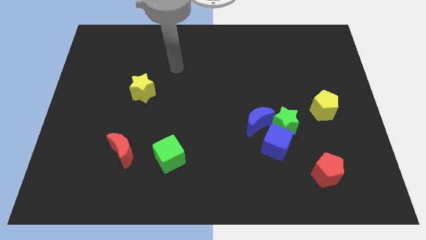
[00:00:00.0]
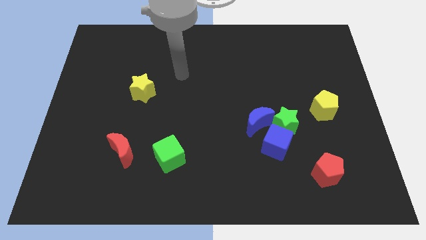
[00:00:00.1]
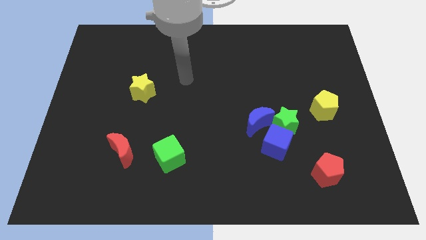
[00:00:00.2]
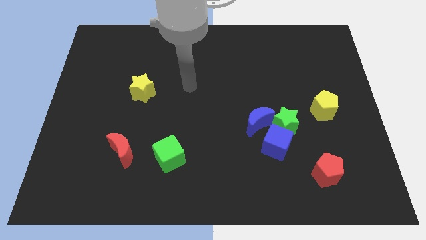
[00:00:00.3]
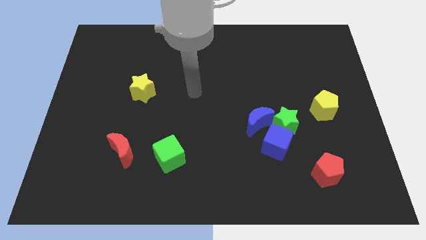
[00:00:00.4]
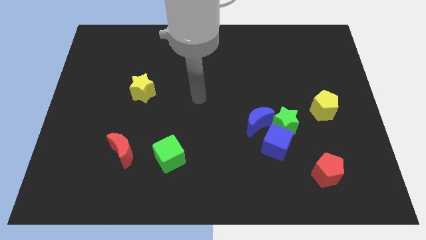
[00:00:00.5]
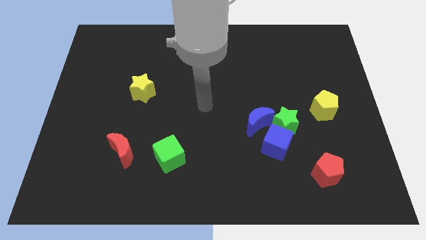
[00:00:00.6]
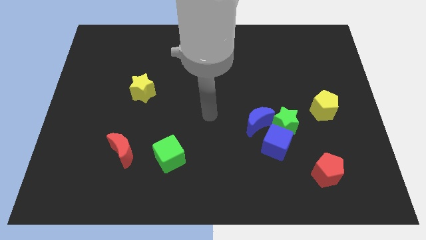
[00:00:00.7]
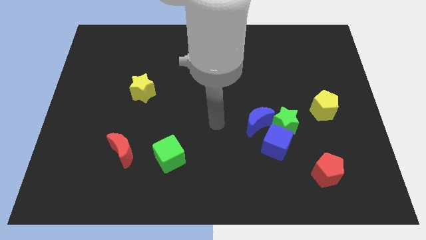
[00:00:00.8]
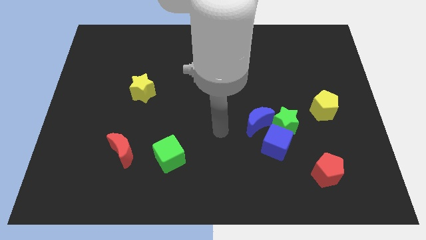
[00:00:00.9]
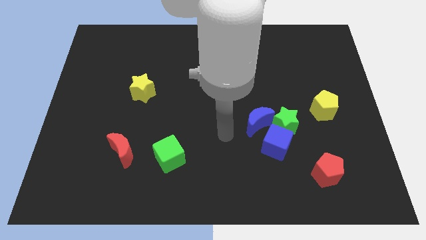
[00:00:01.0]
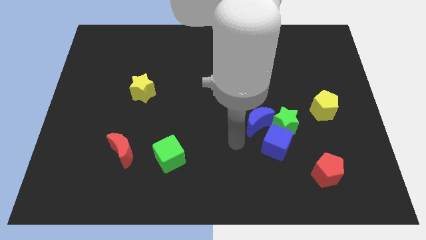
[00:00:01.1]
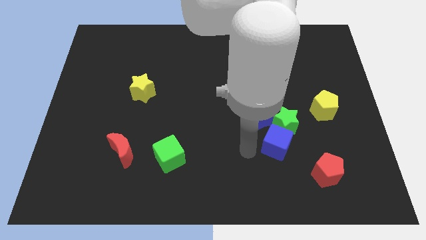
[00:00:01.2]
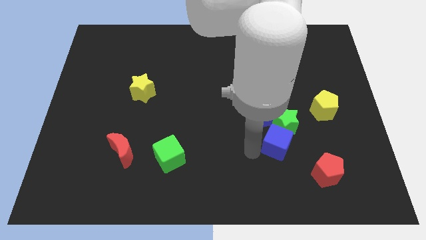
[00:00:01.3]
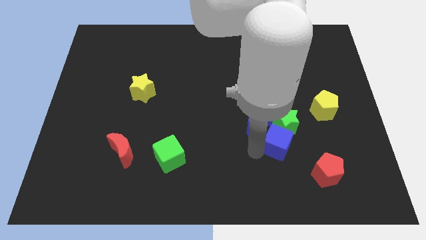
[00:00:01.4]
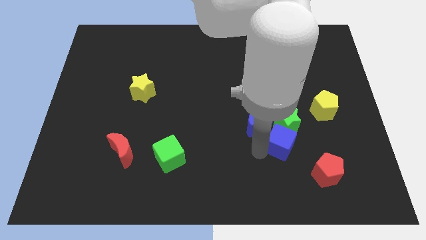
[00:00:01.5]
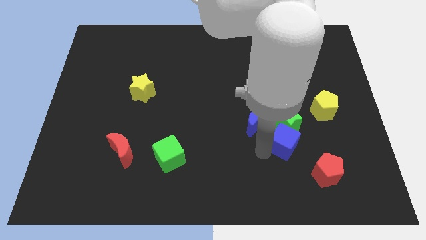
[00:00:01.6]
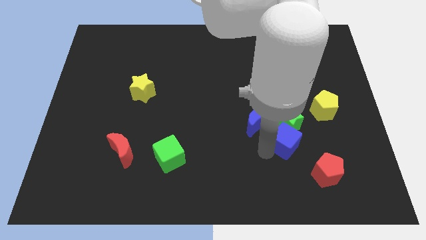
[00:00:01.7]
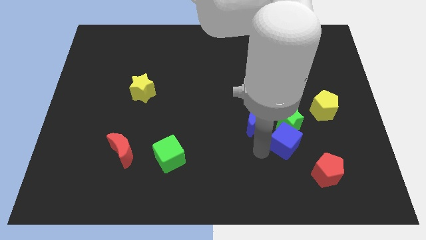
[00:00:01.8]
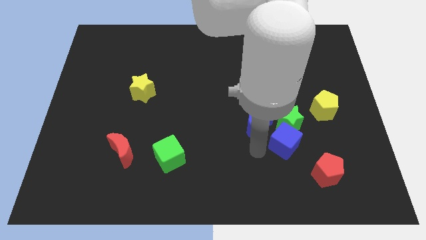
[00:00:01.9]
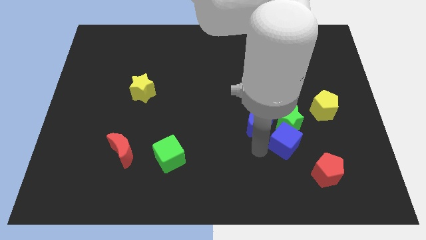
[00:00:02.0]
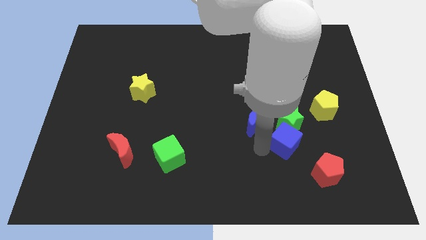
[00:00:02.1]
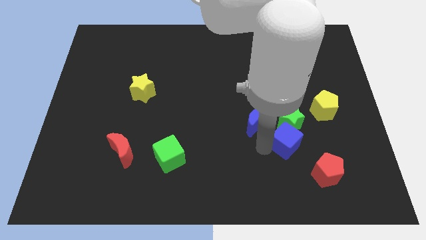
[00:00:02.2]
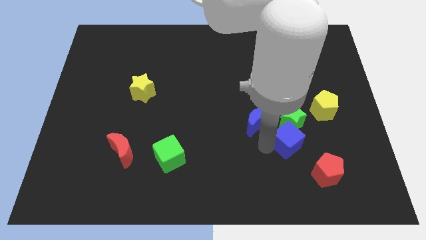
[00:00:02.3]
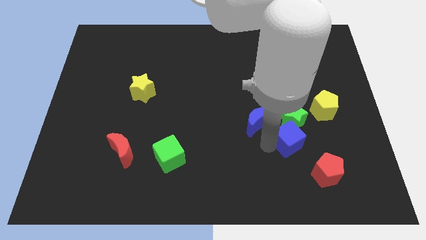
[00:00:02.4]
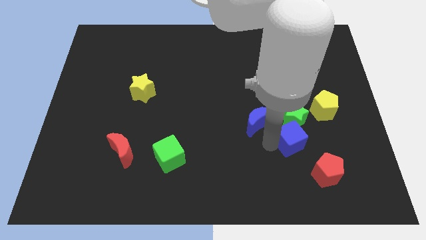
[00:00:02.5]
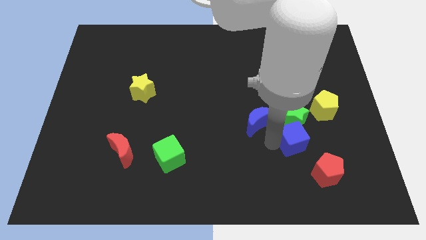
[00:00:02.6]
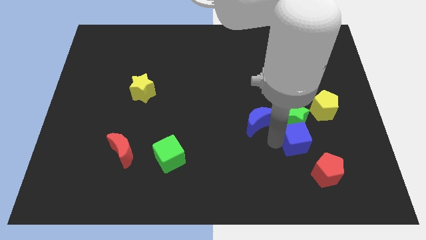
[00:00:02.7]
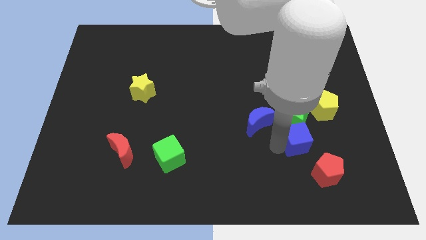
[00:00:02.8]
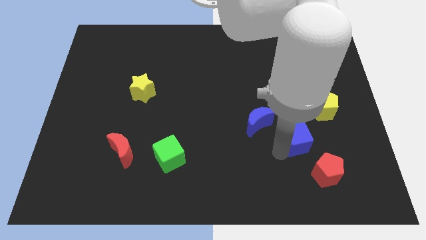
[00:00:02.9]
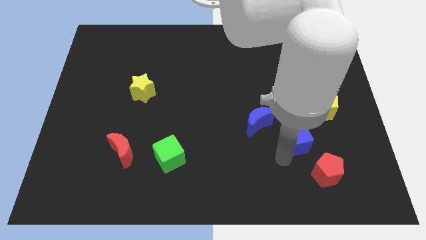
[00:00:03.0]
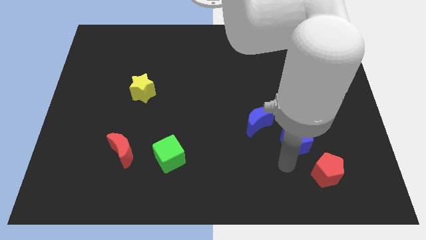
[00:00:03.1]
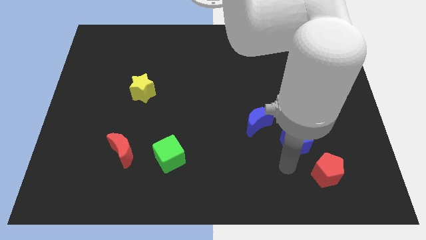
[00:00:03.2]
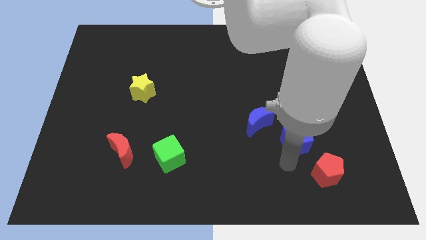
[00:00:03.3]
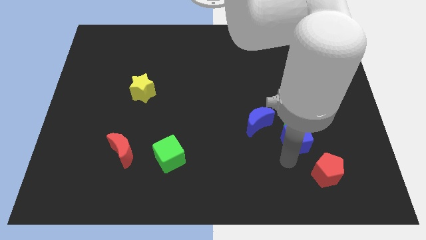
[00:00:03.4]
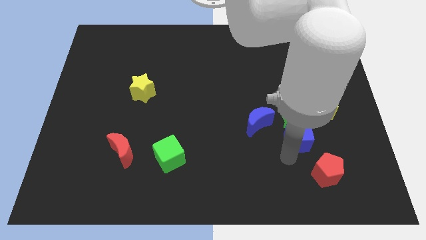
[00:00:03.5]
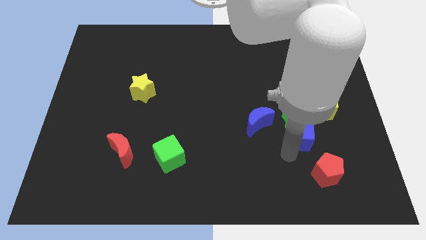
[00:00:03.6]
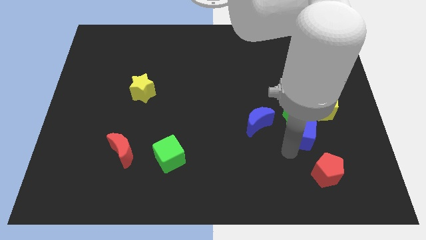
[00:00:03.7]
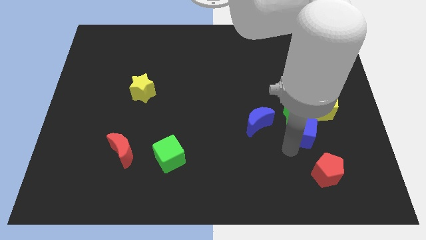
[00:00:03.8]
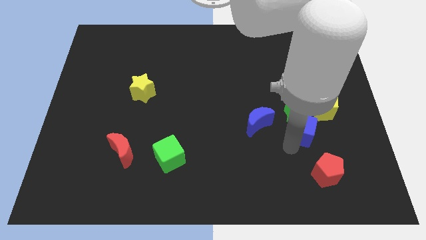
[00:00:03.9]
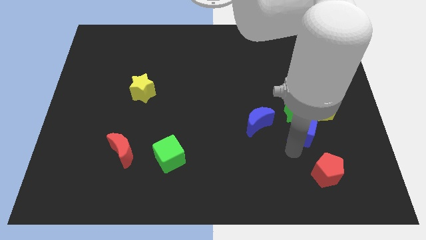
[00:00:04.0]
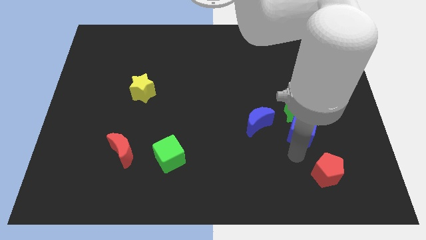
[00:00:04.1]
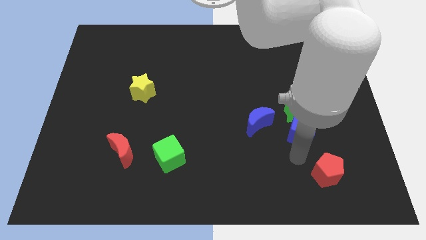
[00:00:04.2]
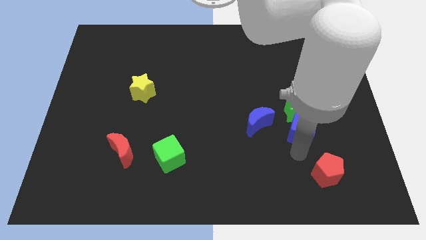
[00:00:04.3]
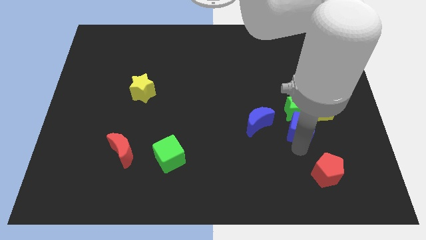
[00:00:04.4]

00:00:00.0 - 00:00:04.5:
push the blue cube up and to the right slightly

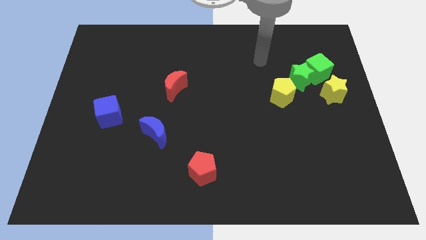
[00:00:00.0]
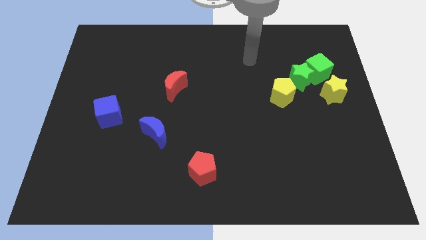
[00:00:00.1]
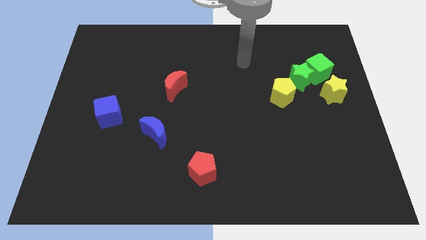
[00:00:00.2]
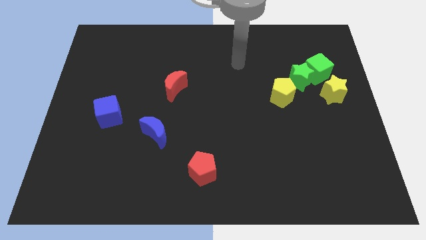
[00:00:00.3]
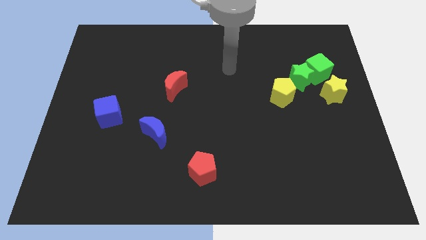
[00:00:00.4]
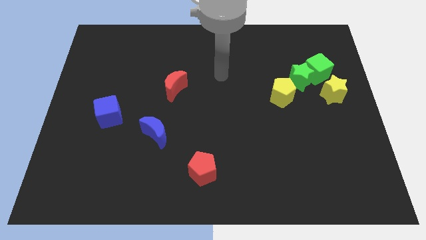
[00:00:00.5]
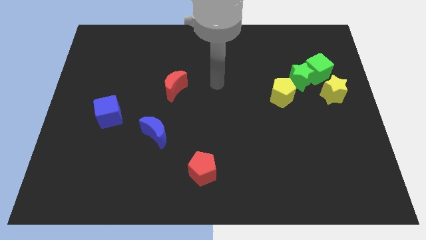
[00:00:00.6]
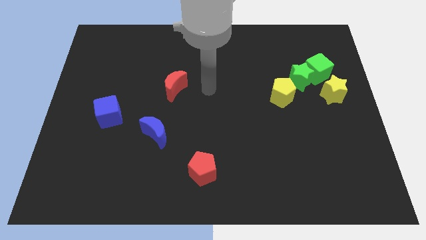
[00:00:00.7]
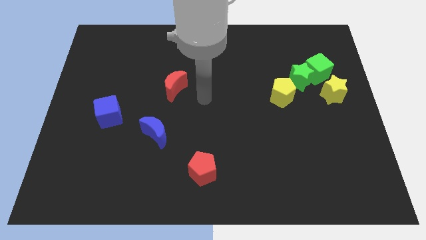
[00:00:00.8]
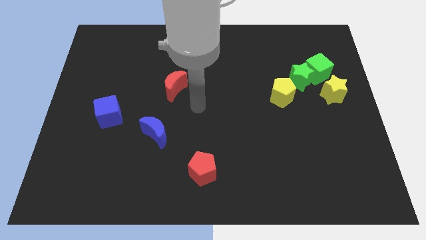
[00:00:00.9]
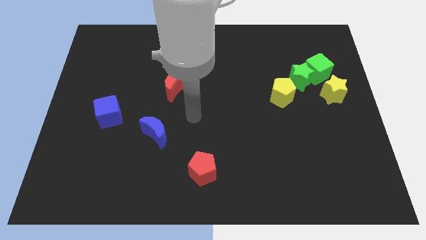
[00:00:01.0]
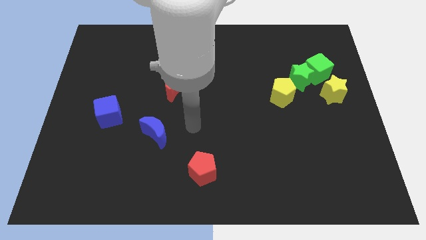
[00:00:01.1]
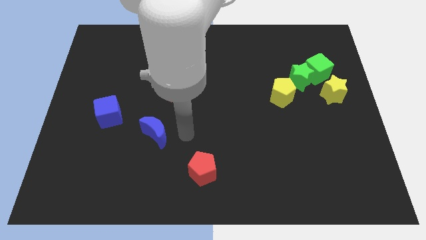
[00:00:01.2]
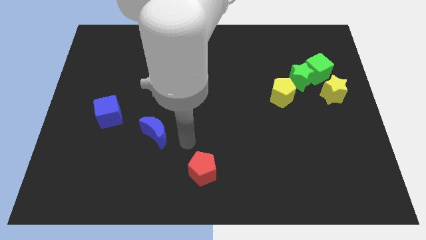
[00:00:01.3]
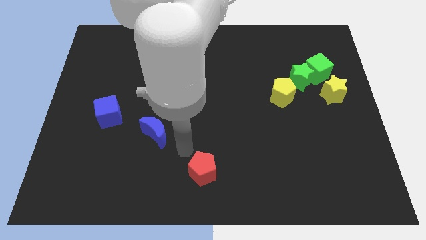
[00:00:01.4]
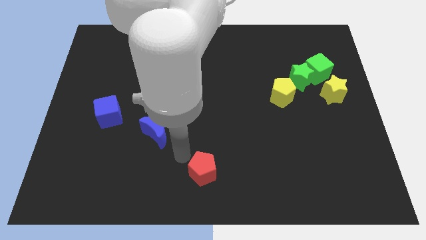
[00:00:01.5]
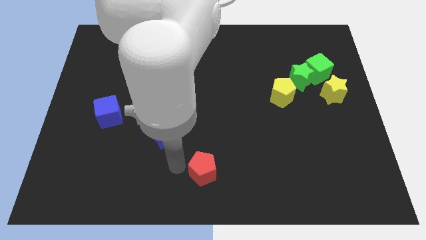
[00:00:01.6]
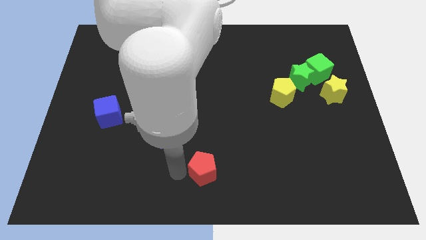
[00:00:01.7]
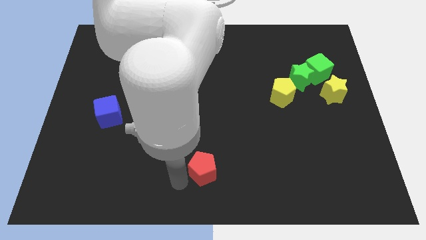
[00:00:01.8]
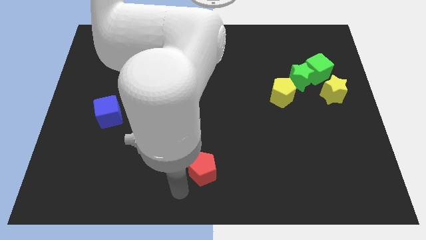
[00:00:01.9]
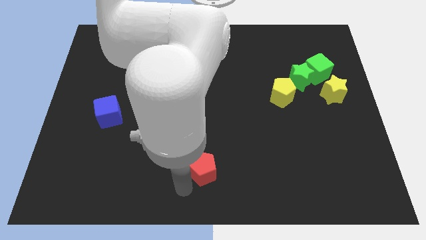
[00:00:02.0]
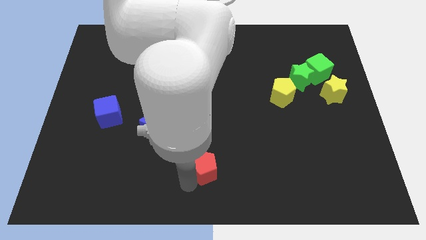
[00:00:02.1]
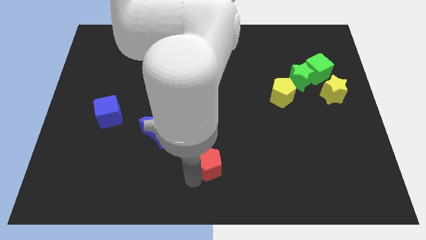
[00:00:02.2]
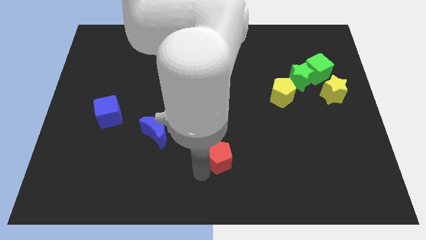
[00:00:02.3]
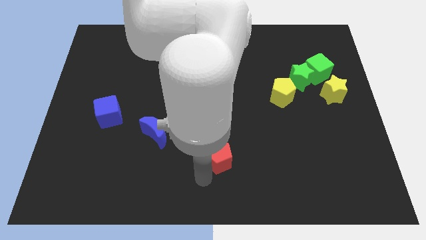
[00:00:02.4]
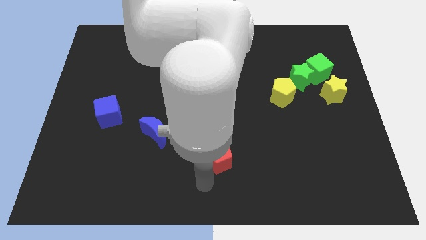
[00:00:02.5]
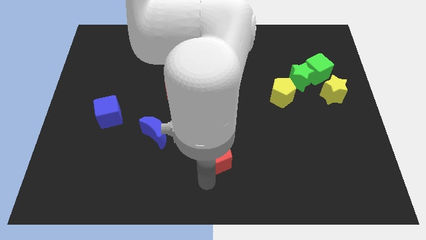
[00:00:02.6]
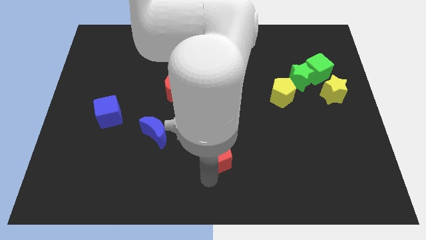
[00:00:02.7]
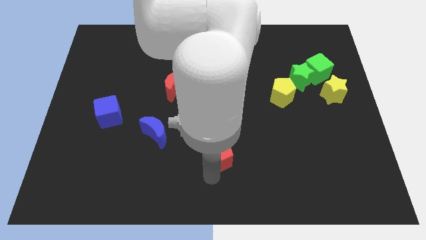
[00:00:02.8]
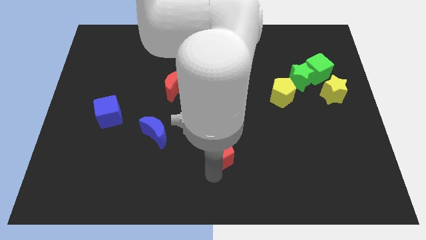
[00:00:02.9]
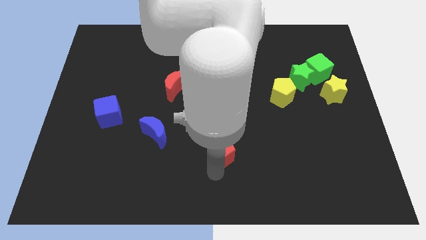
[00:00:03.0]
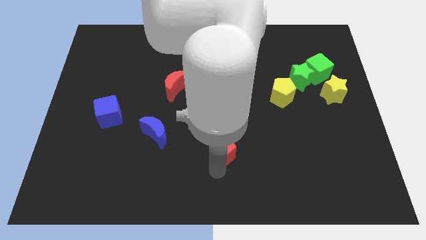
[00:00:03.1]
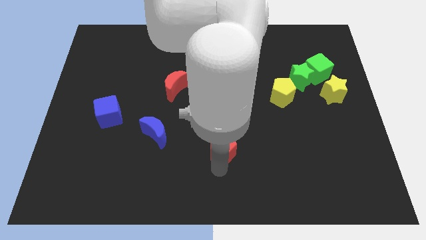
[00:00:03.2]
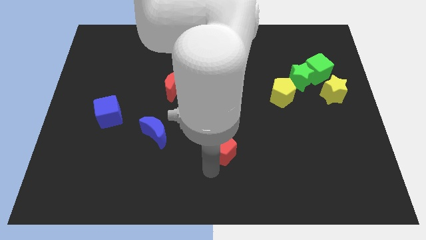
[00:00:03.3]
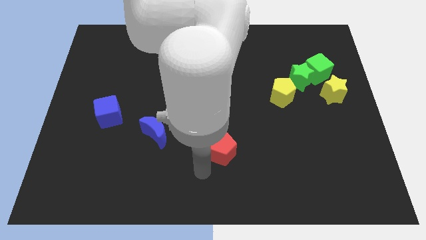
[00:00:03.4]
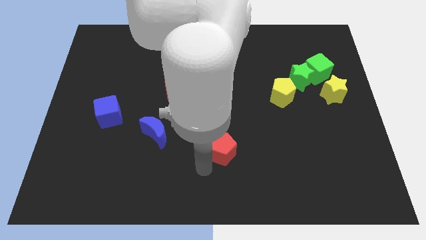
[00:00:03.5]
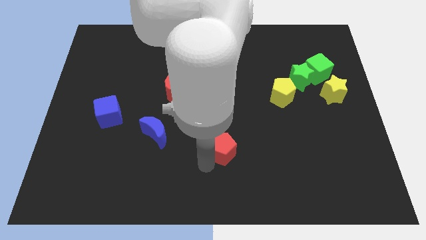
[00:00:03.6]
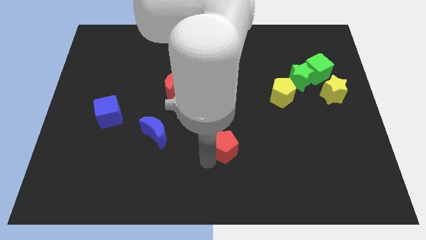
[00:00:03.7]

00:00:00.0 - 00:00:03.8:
push the red pentagon a bit upwards and right
